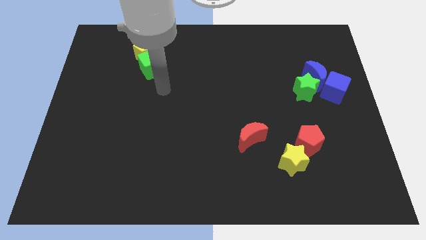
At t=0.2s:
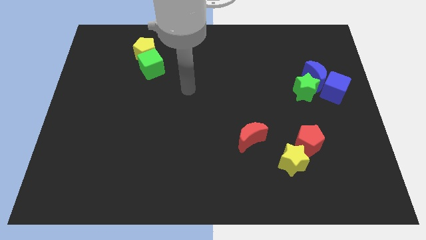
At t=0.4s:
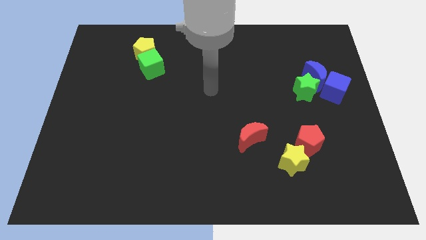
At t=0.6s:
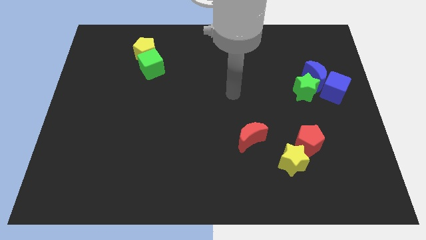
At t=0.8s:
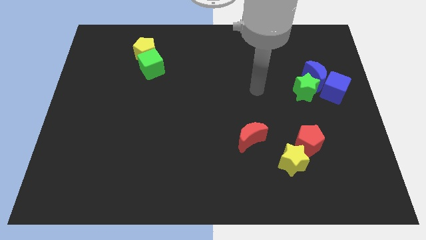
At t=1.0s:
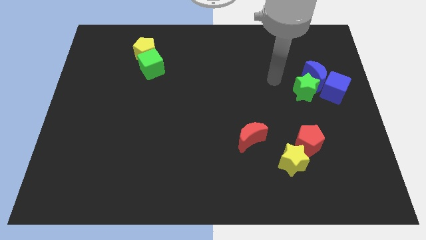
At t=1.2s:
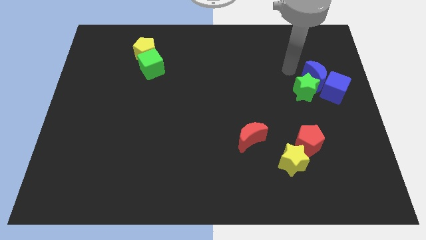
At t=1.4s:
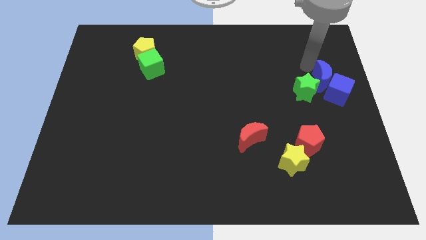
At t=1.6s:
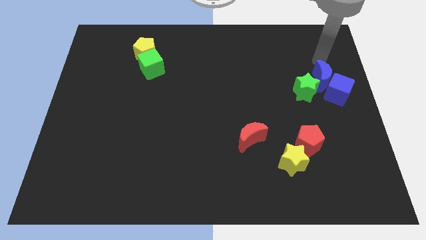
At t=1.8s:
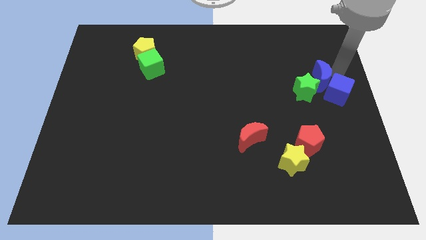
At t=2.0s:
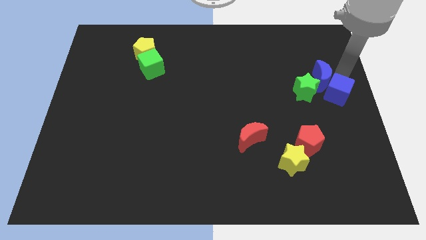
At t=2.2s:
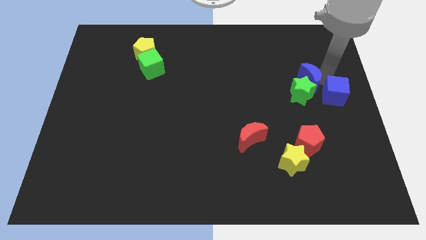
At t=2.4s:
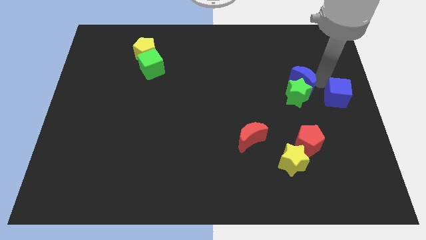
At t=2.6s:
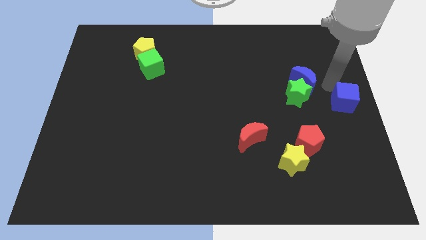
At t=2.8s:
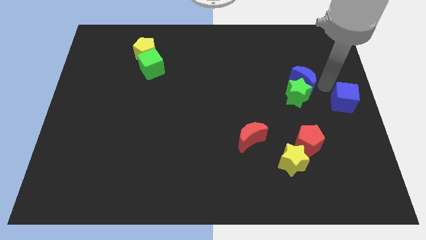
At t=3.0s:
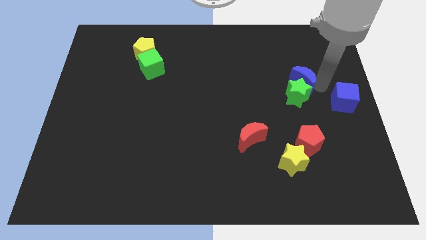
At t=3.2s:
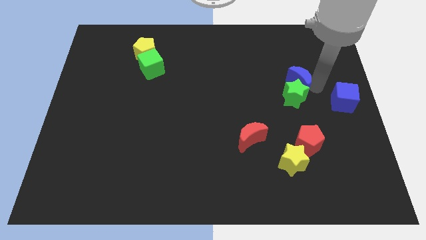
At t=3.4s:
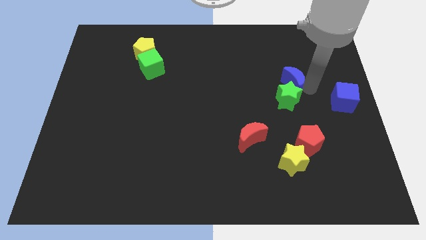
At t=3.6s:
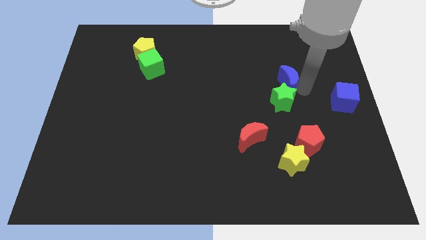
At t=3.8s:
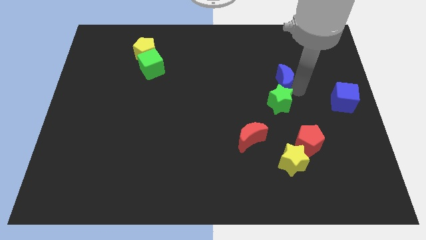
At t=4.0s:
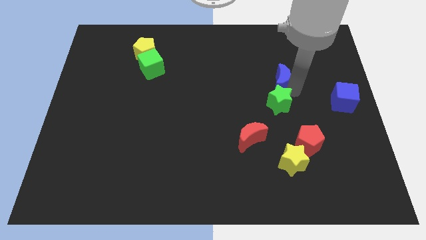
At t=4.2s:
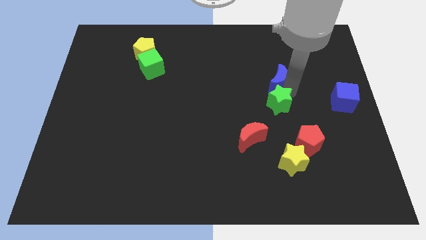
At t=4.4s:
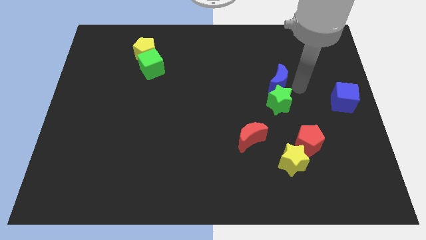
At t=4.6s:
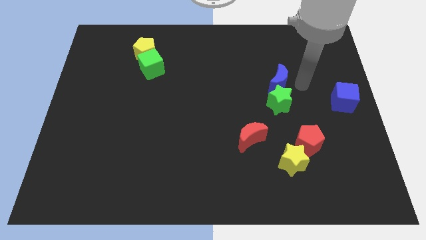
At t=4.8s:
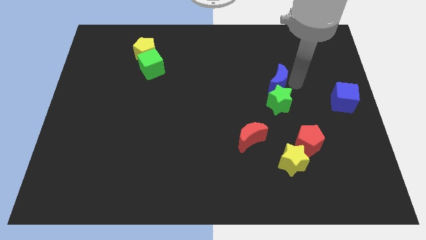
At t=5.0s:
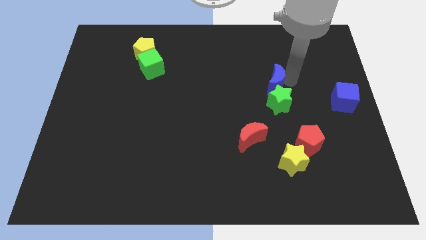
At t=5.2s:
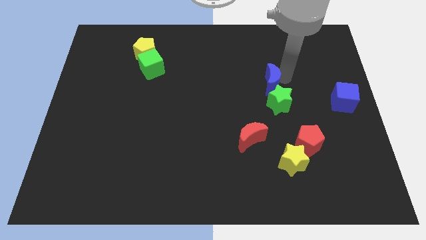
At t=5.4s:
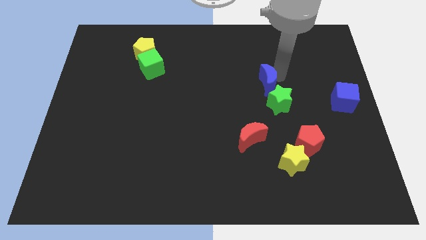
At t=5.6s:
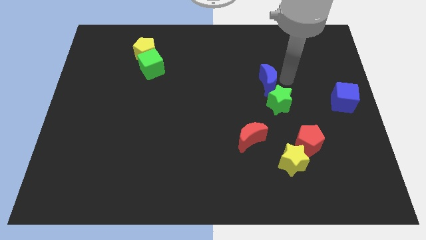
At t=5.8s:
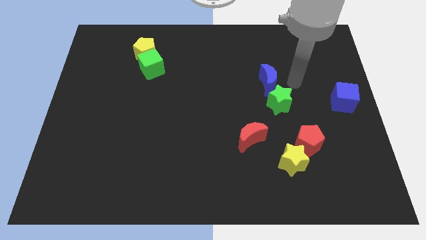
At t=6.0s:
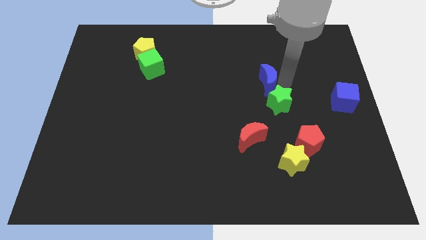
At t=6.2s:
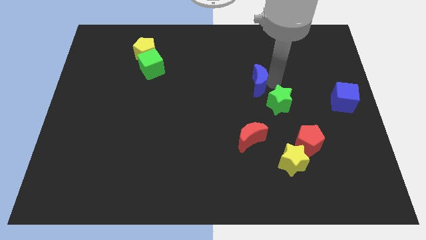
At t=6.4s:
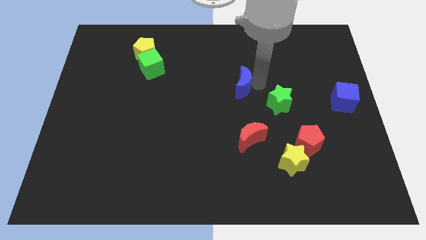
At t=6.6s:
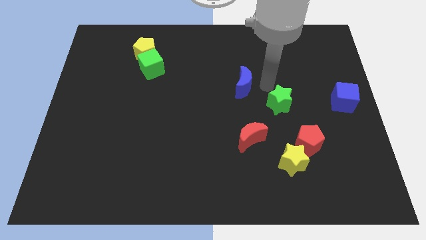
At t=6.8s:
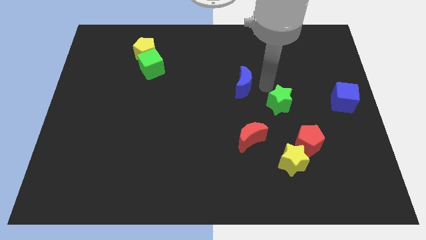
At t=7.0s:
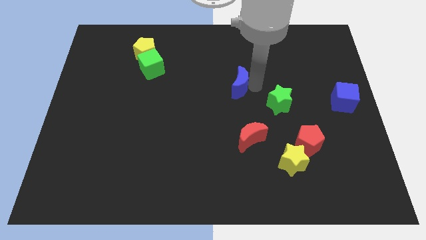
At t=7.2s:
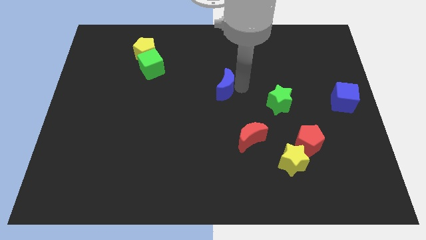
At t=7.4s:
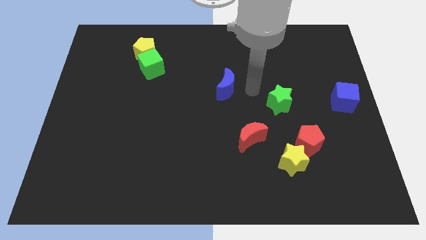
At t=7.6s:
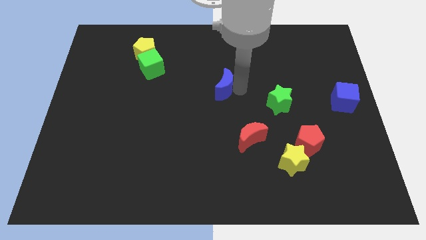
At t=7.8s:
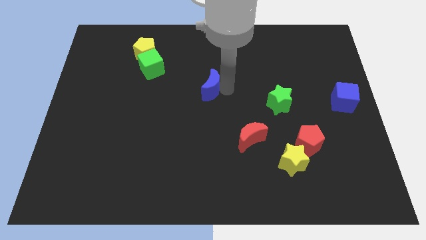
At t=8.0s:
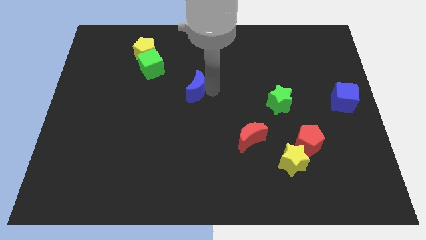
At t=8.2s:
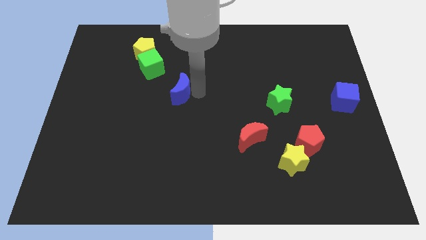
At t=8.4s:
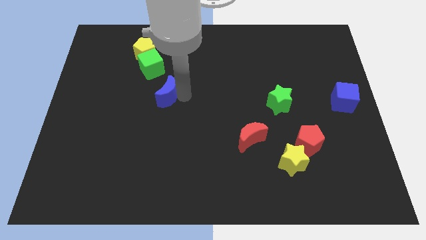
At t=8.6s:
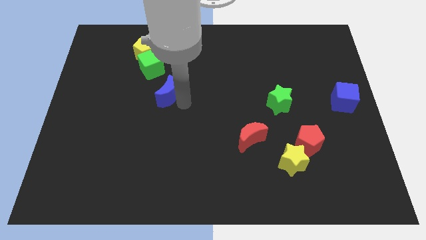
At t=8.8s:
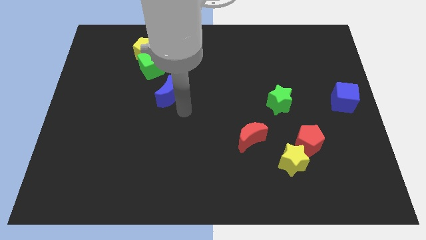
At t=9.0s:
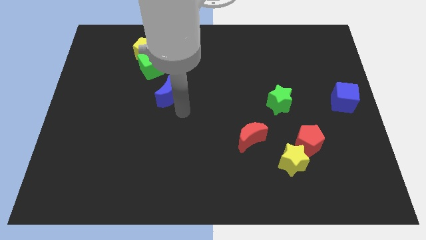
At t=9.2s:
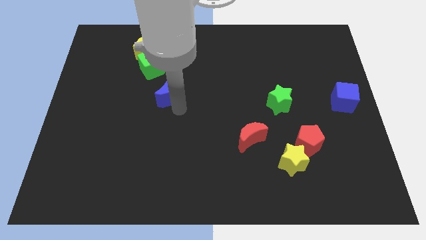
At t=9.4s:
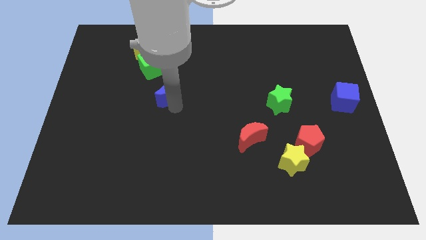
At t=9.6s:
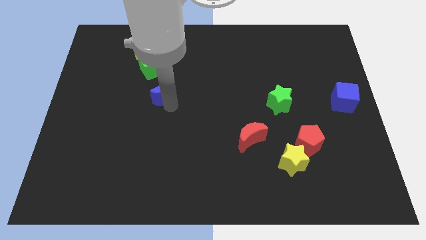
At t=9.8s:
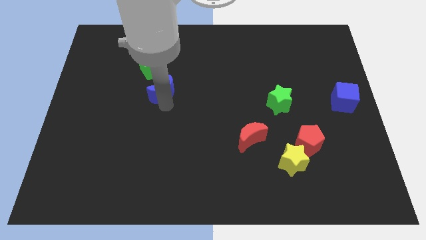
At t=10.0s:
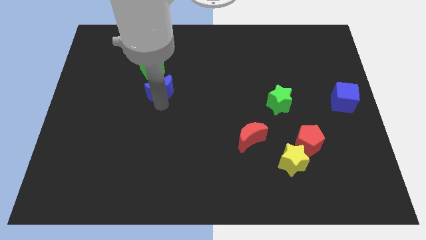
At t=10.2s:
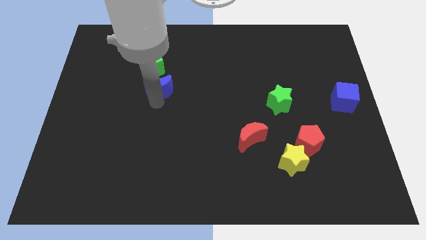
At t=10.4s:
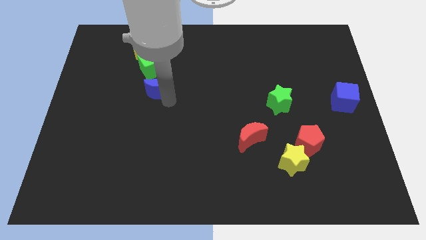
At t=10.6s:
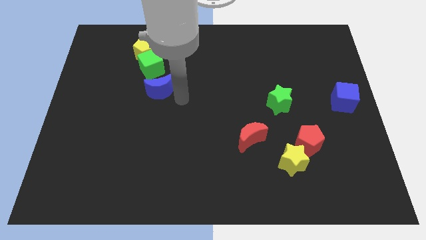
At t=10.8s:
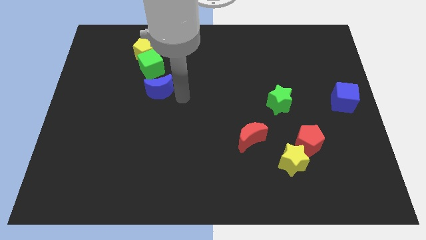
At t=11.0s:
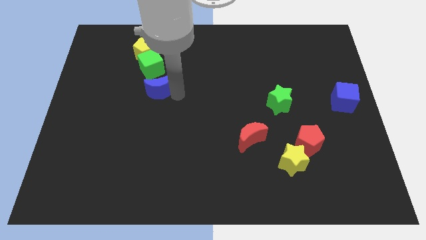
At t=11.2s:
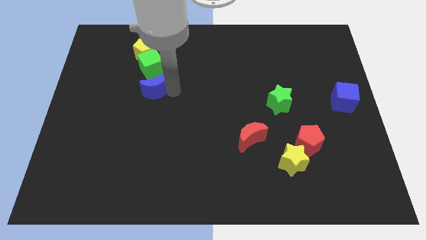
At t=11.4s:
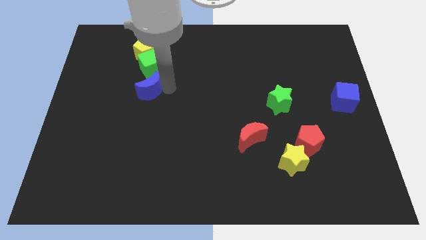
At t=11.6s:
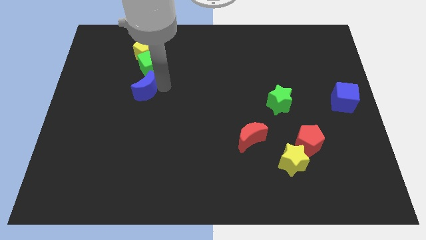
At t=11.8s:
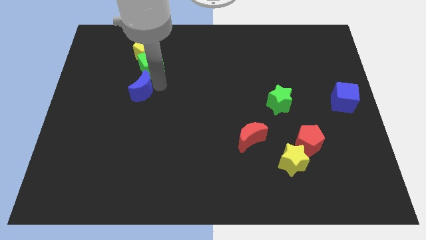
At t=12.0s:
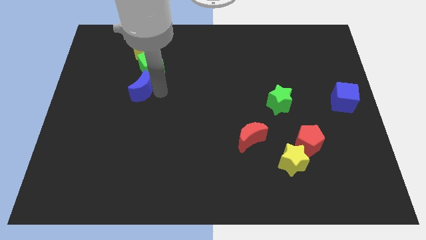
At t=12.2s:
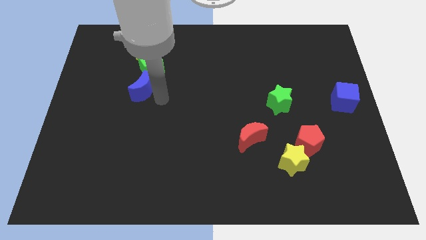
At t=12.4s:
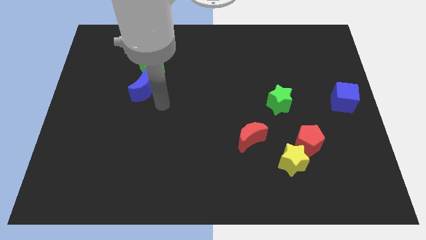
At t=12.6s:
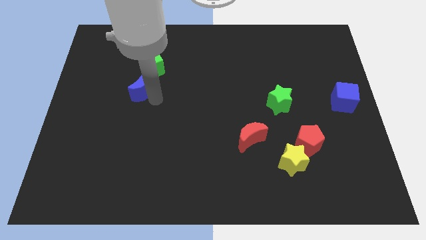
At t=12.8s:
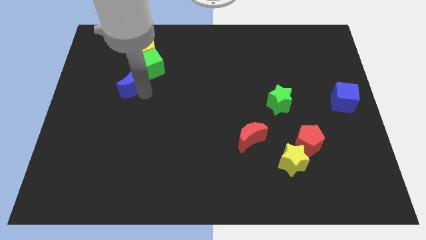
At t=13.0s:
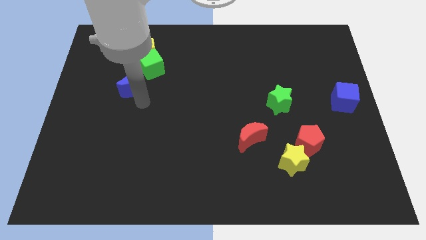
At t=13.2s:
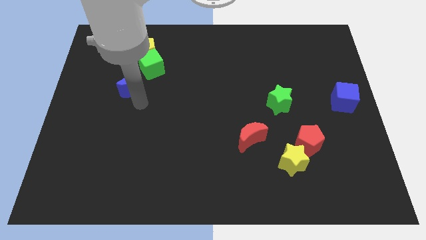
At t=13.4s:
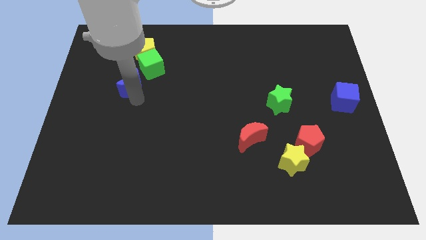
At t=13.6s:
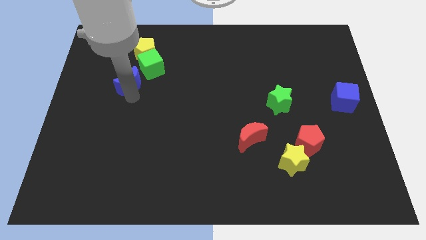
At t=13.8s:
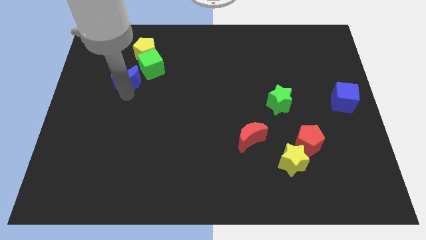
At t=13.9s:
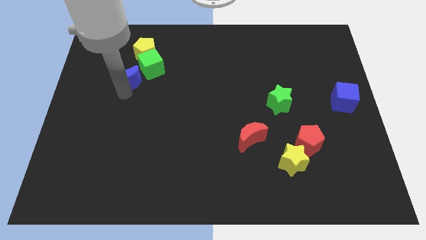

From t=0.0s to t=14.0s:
push the blue moon to the bottom left side of the yellow pentagon
